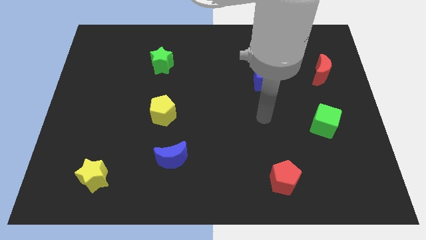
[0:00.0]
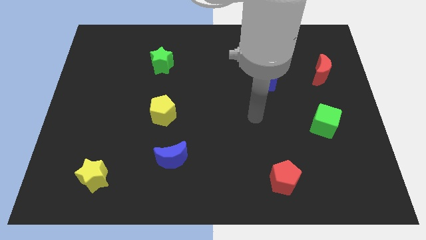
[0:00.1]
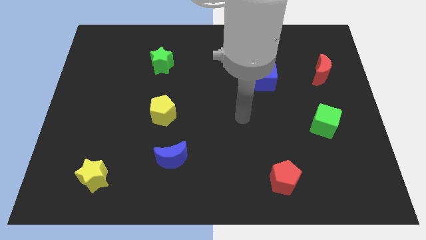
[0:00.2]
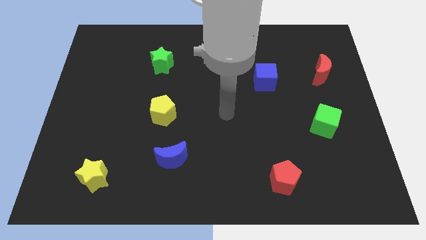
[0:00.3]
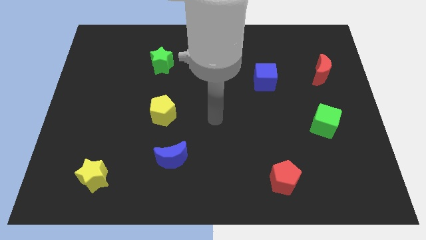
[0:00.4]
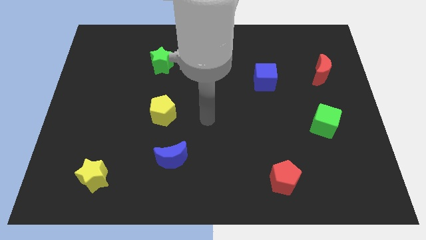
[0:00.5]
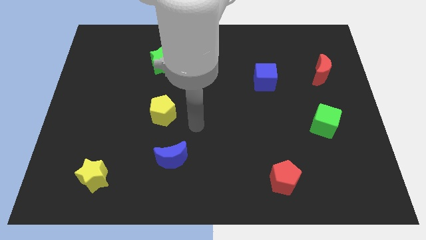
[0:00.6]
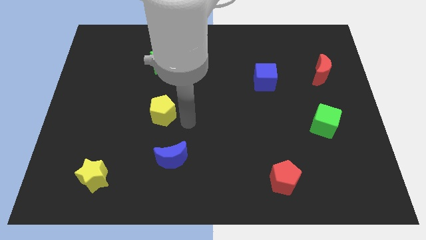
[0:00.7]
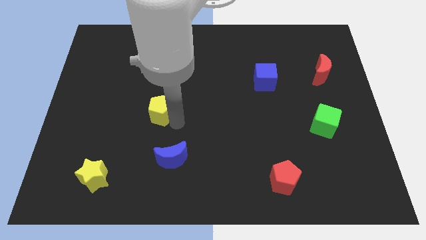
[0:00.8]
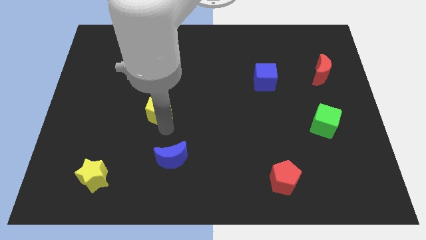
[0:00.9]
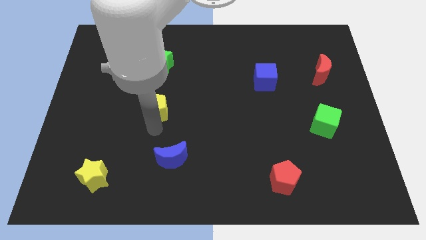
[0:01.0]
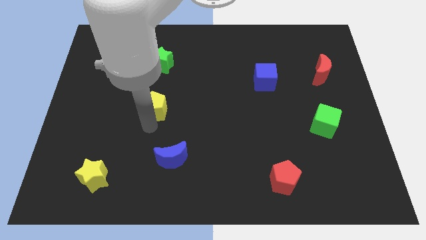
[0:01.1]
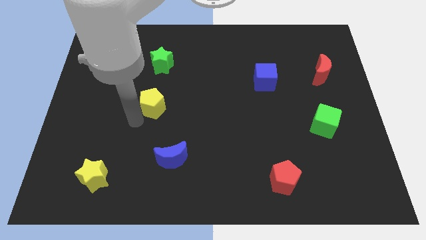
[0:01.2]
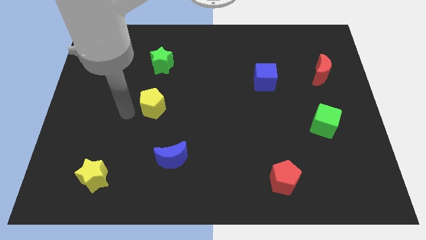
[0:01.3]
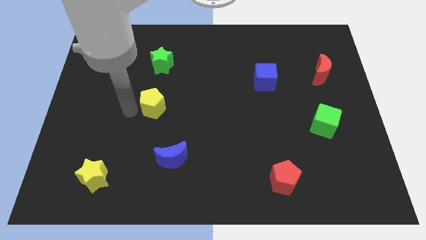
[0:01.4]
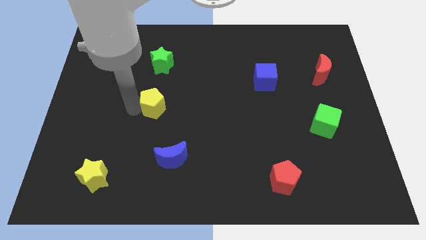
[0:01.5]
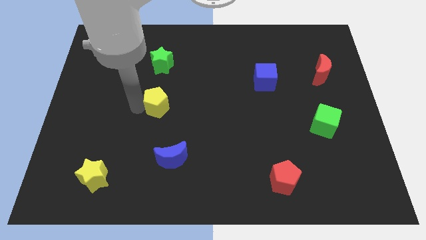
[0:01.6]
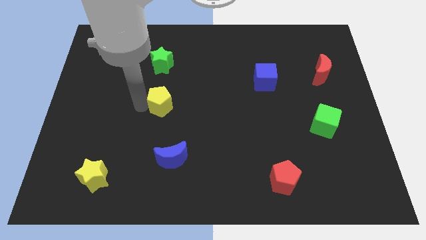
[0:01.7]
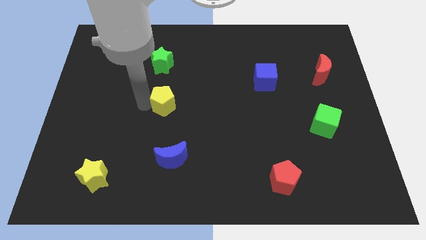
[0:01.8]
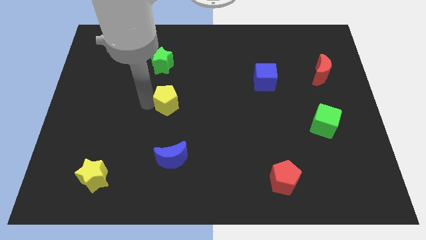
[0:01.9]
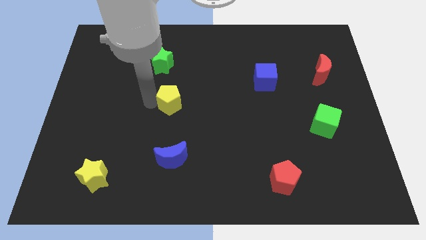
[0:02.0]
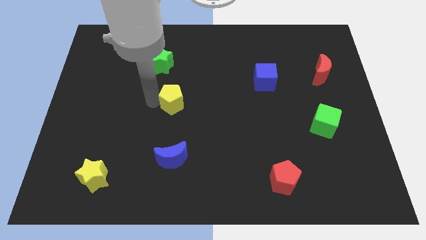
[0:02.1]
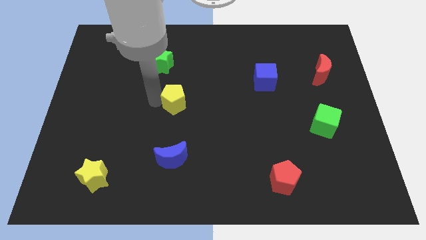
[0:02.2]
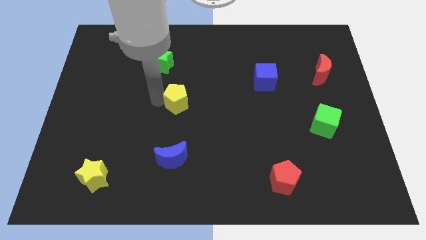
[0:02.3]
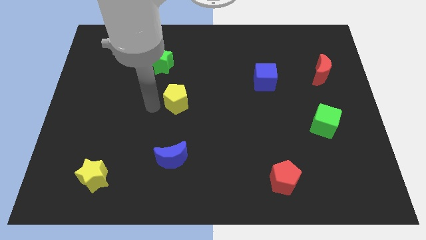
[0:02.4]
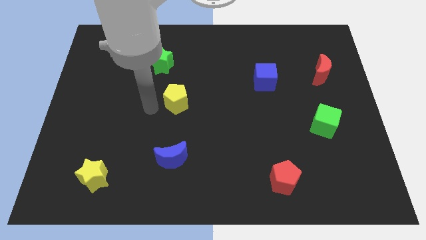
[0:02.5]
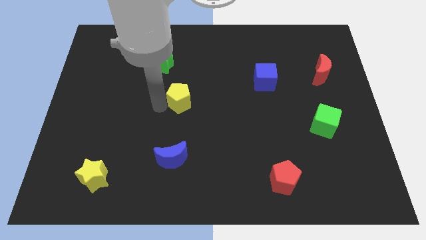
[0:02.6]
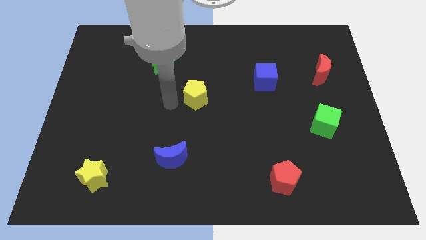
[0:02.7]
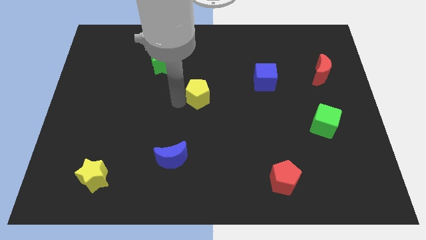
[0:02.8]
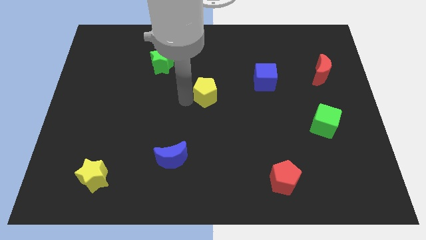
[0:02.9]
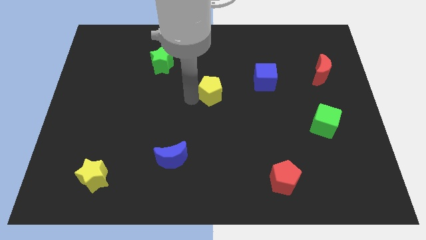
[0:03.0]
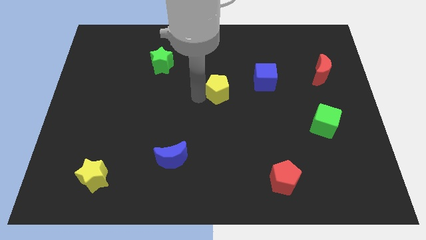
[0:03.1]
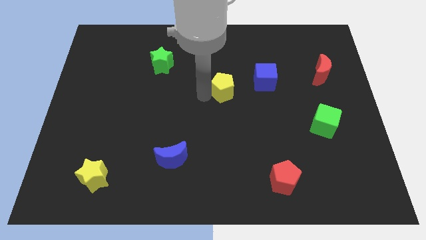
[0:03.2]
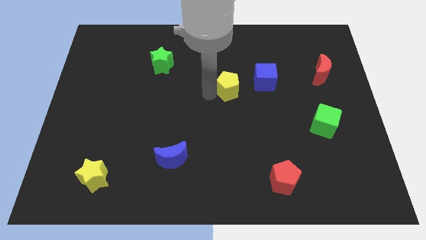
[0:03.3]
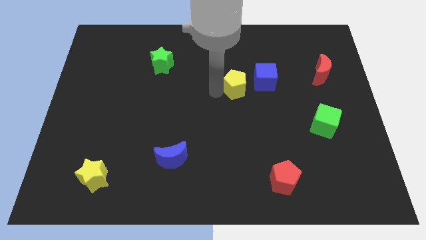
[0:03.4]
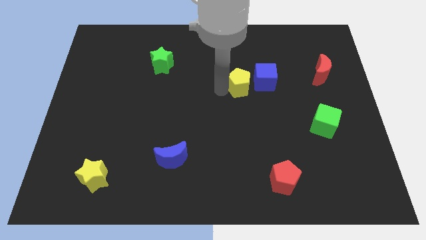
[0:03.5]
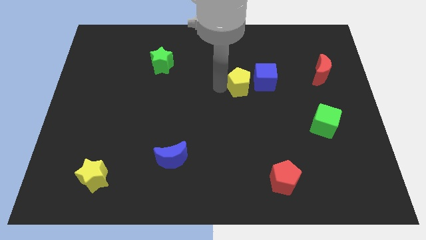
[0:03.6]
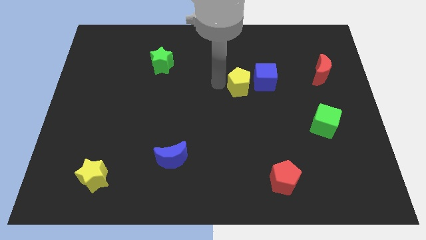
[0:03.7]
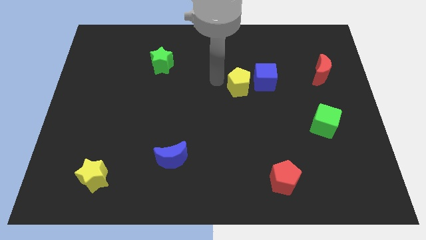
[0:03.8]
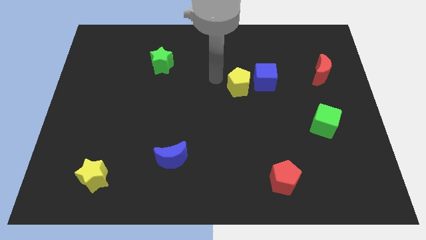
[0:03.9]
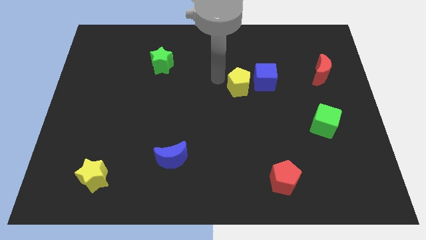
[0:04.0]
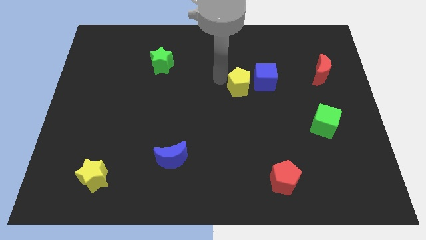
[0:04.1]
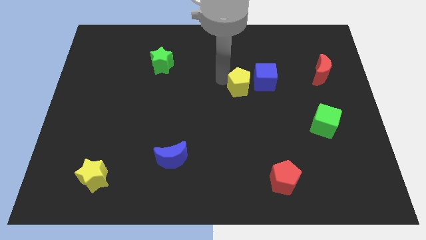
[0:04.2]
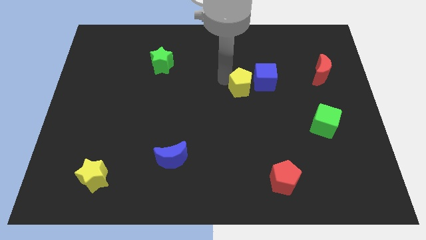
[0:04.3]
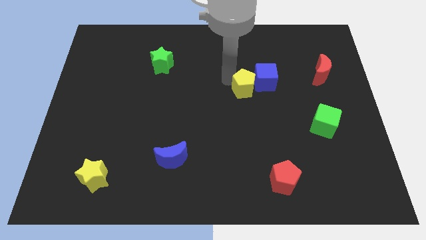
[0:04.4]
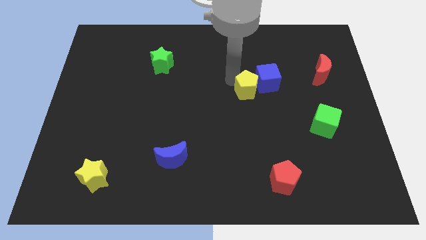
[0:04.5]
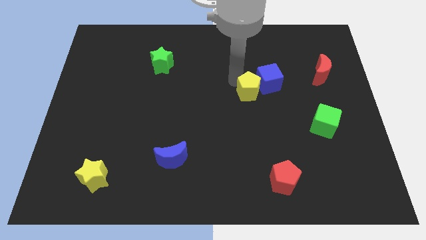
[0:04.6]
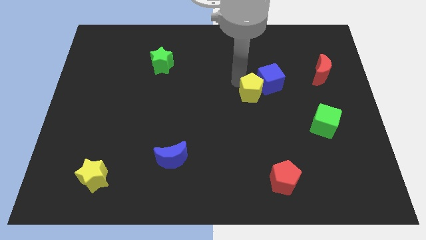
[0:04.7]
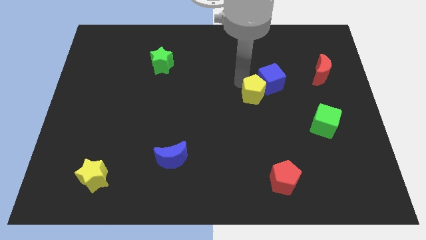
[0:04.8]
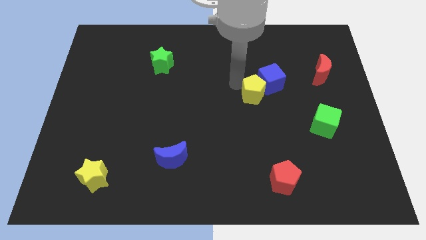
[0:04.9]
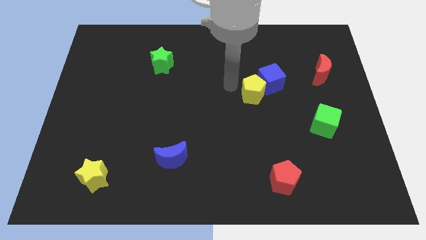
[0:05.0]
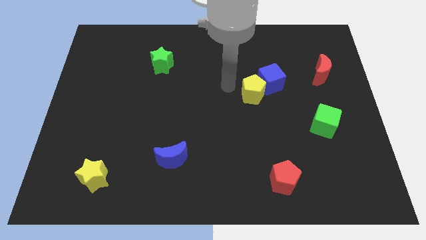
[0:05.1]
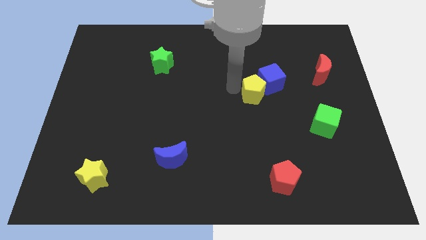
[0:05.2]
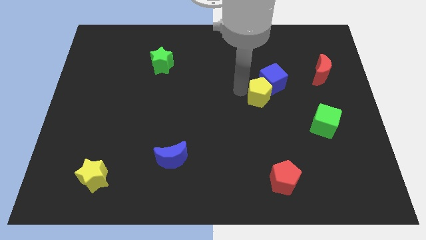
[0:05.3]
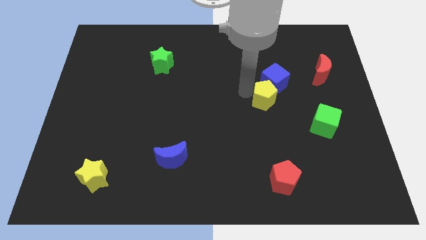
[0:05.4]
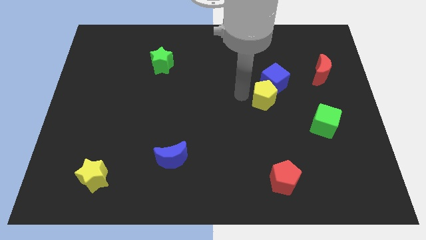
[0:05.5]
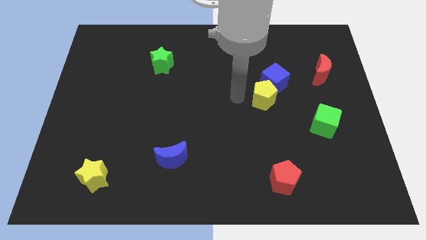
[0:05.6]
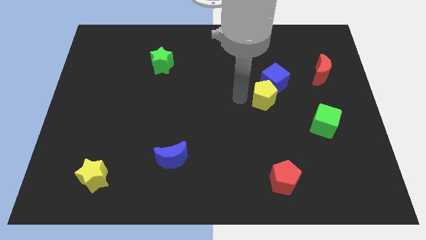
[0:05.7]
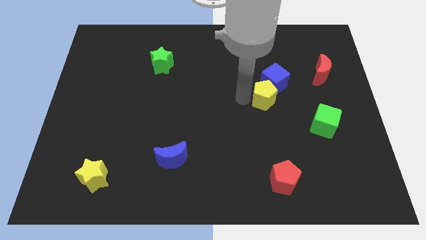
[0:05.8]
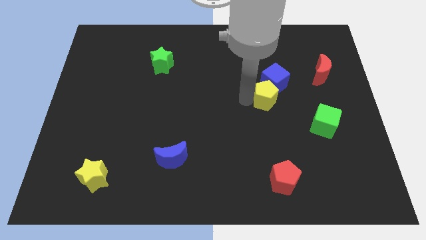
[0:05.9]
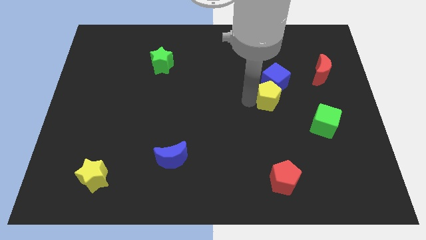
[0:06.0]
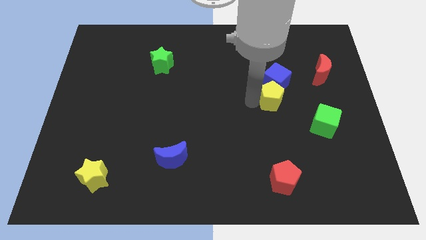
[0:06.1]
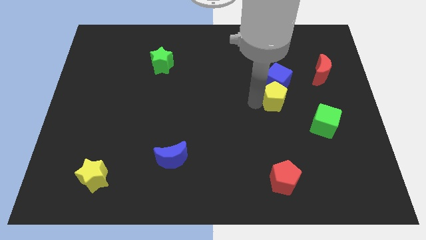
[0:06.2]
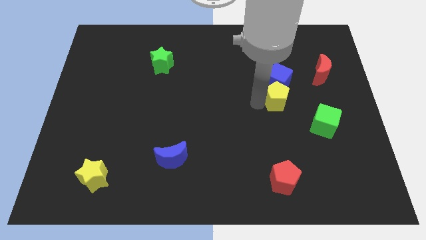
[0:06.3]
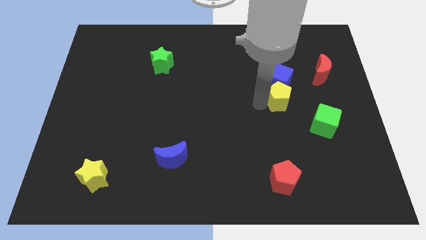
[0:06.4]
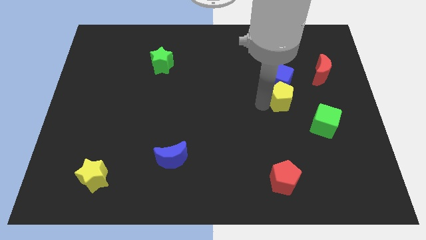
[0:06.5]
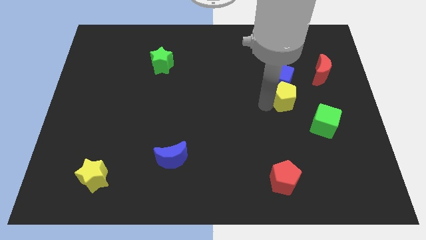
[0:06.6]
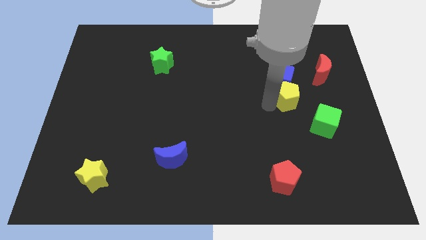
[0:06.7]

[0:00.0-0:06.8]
slide the yellow pentagon diagonally down and to the left of the red moon

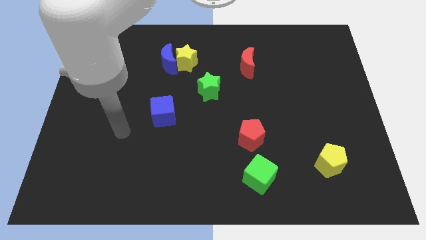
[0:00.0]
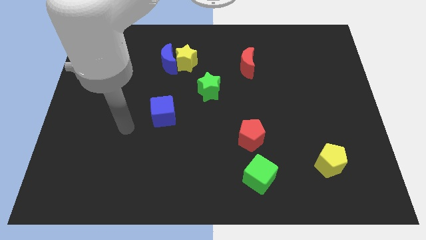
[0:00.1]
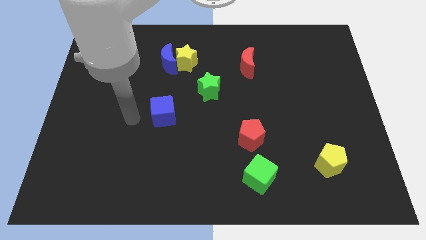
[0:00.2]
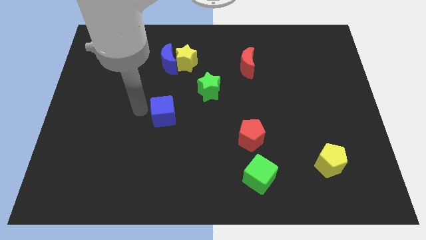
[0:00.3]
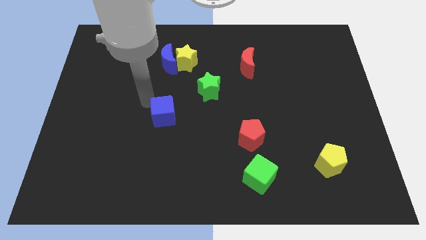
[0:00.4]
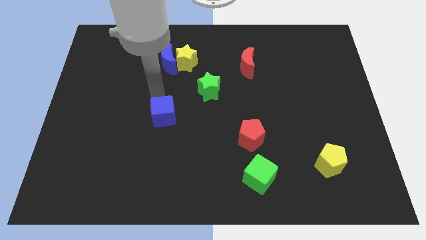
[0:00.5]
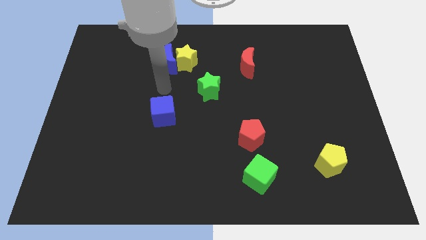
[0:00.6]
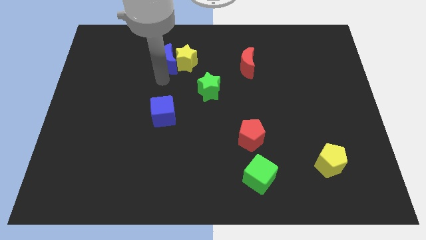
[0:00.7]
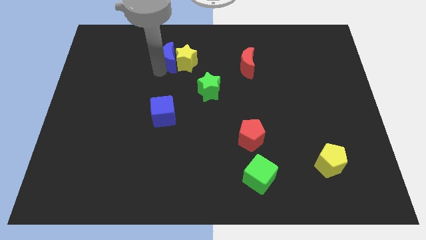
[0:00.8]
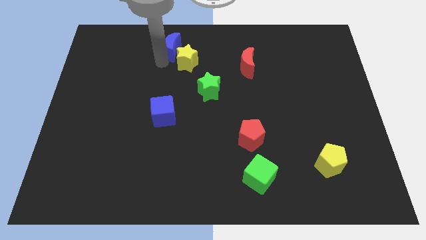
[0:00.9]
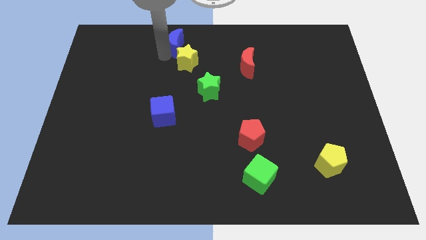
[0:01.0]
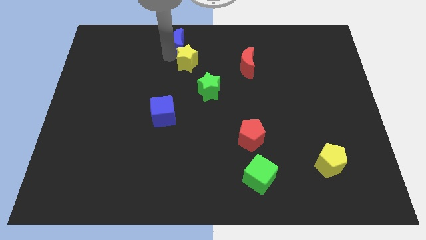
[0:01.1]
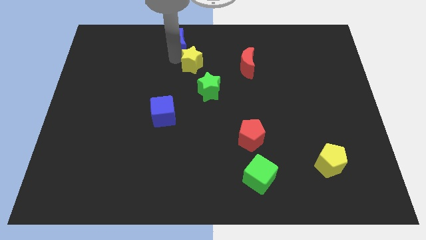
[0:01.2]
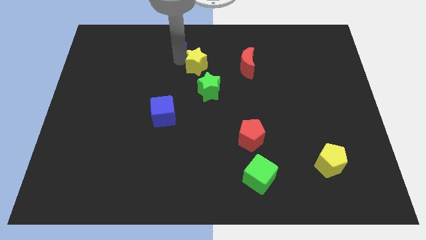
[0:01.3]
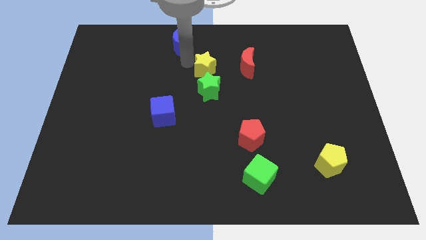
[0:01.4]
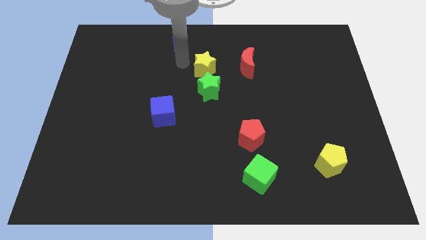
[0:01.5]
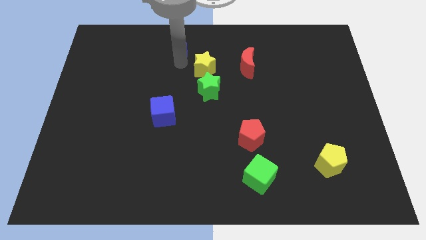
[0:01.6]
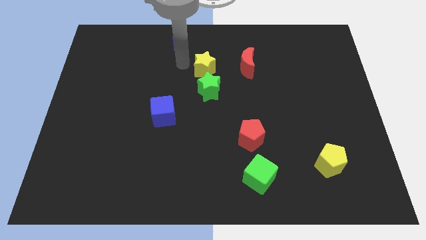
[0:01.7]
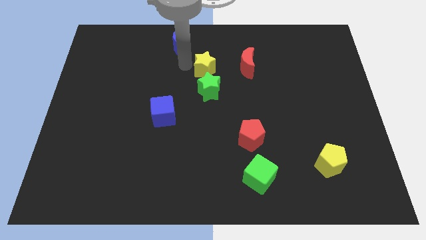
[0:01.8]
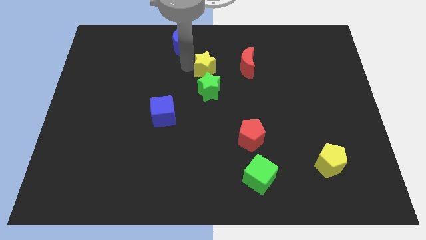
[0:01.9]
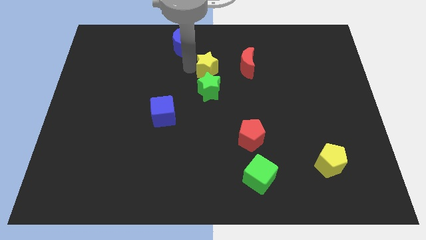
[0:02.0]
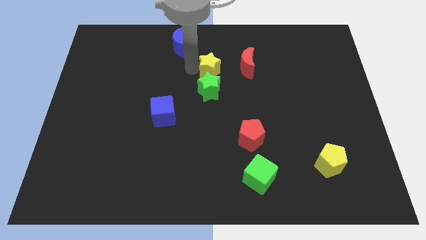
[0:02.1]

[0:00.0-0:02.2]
put the yellow star to the top right side of the green star
